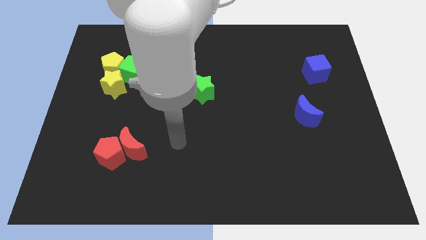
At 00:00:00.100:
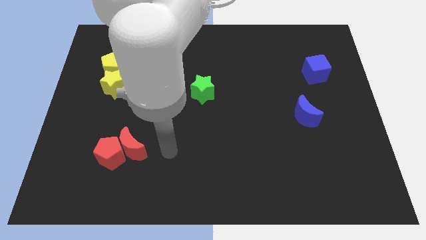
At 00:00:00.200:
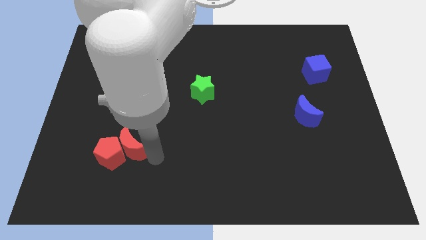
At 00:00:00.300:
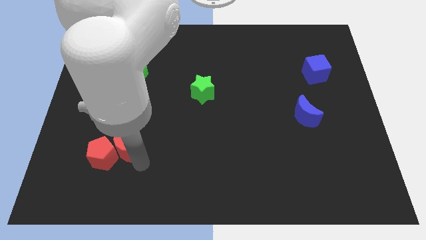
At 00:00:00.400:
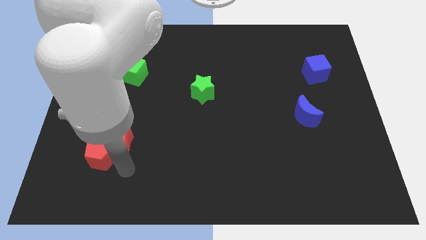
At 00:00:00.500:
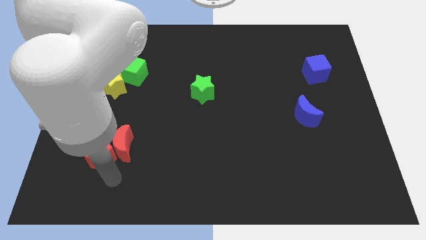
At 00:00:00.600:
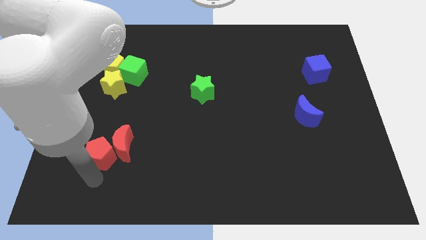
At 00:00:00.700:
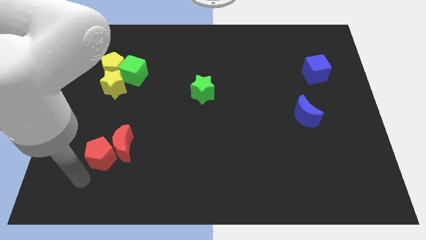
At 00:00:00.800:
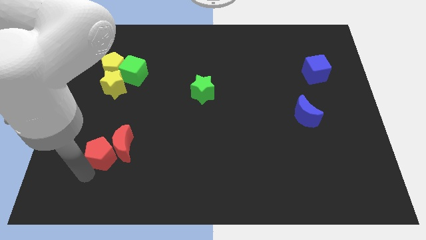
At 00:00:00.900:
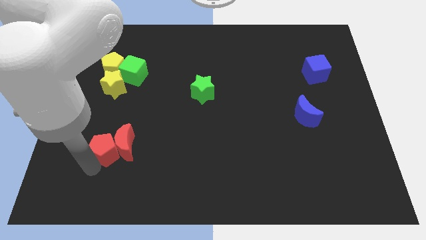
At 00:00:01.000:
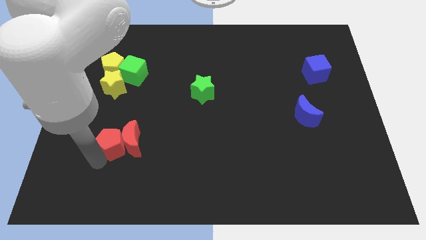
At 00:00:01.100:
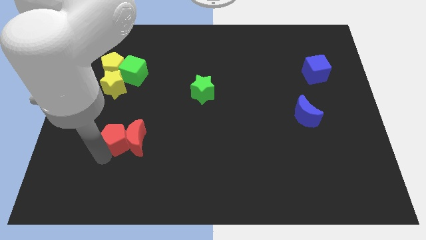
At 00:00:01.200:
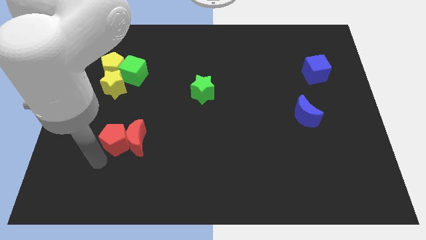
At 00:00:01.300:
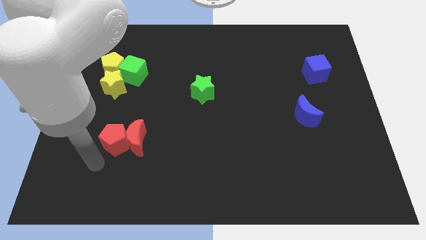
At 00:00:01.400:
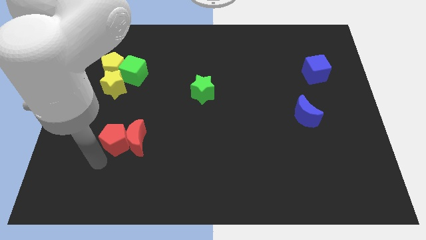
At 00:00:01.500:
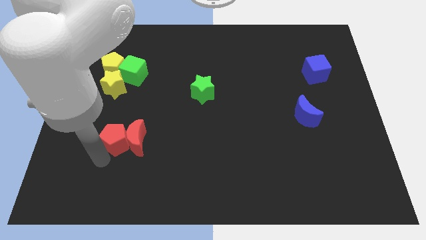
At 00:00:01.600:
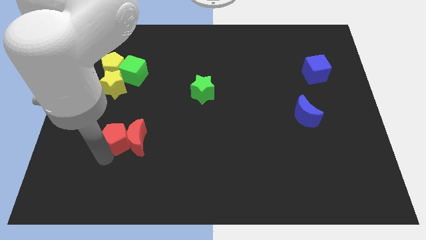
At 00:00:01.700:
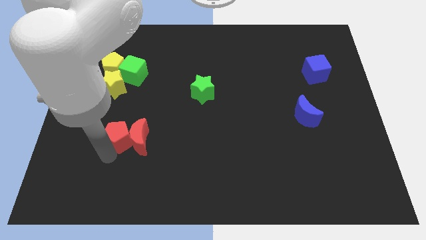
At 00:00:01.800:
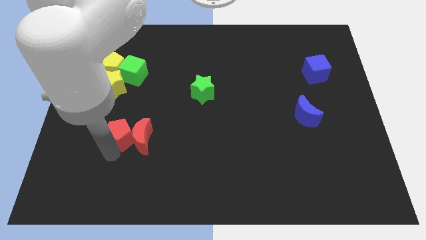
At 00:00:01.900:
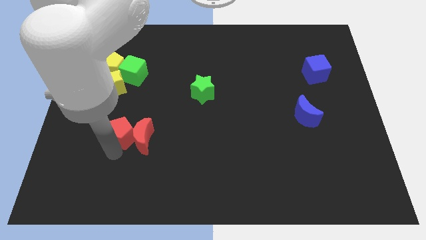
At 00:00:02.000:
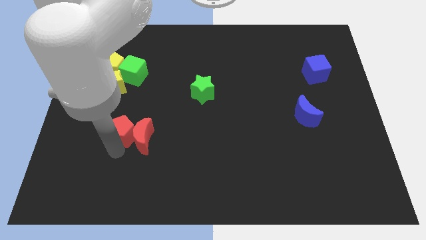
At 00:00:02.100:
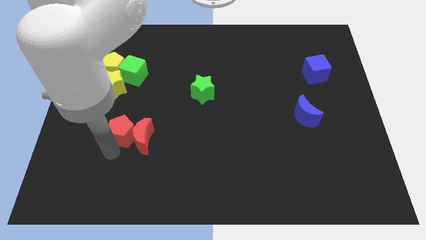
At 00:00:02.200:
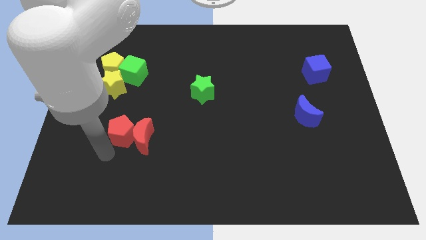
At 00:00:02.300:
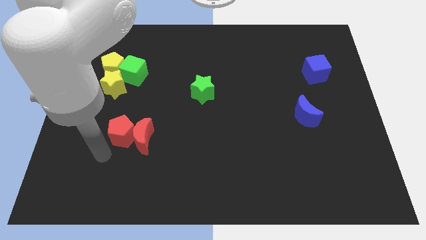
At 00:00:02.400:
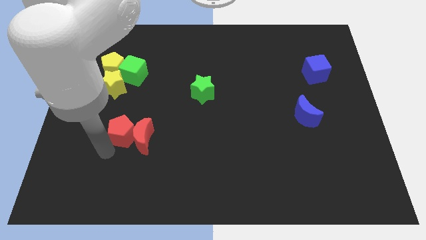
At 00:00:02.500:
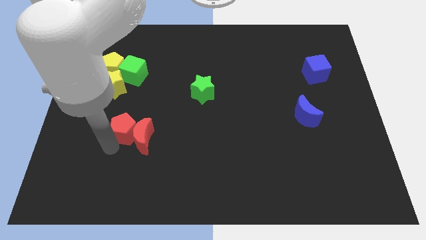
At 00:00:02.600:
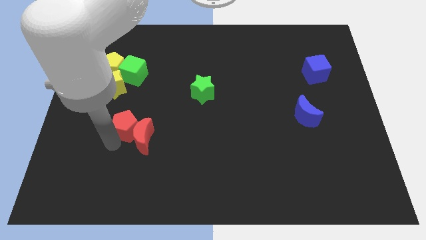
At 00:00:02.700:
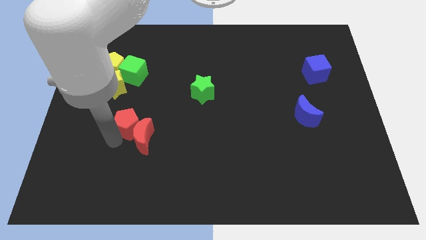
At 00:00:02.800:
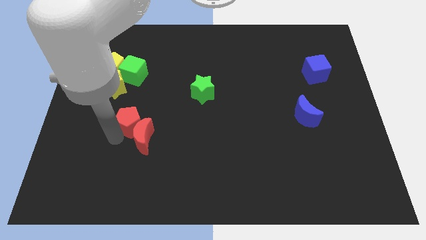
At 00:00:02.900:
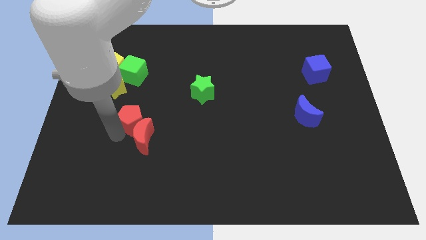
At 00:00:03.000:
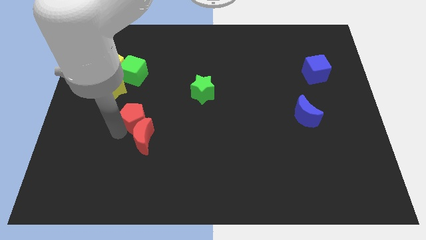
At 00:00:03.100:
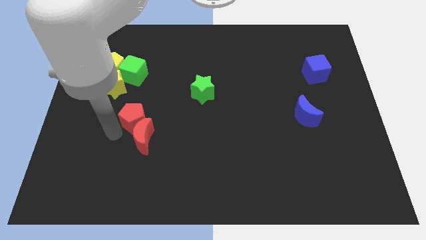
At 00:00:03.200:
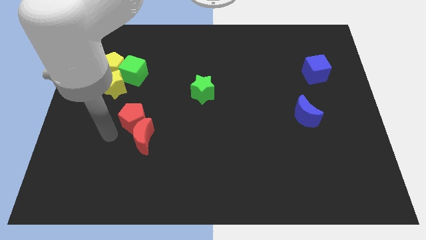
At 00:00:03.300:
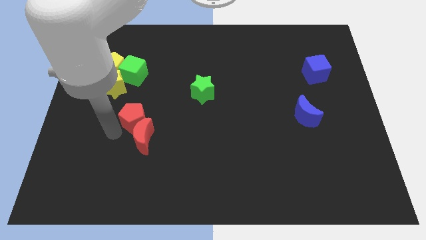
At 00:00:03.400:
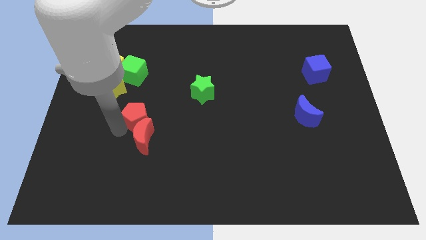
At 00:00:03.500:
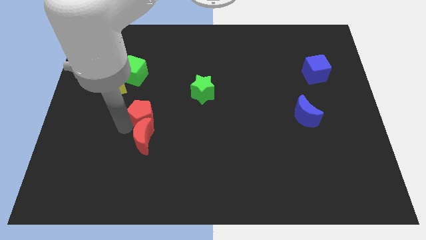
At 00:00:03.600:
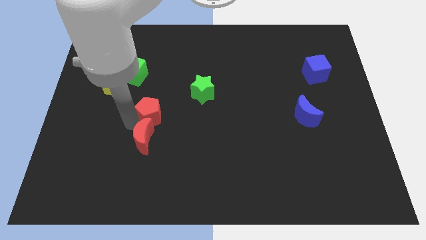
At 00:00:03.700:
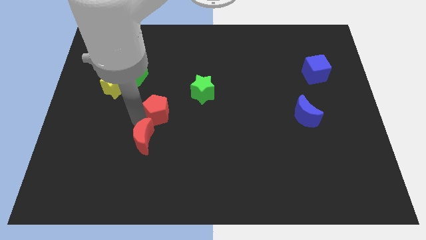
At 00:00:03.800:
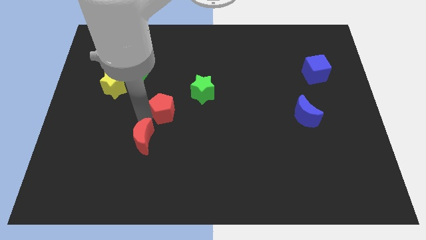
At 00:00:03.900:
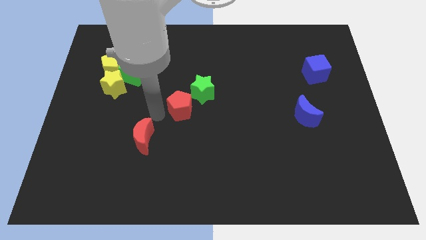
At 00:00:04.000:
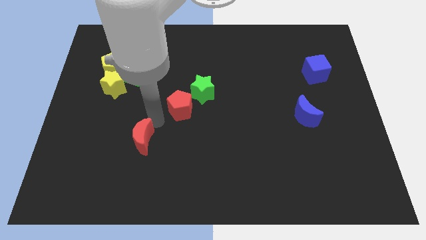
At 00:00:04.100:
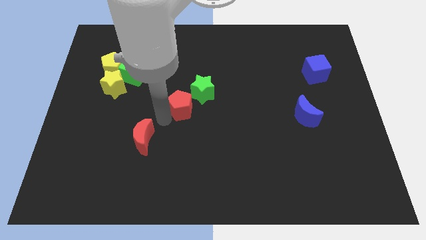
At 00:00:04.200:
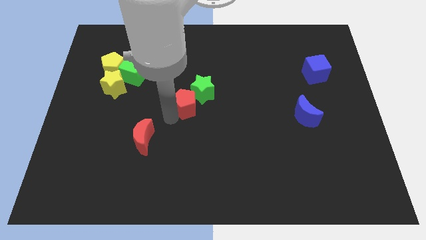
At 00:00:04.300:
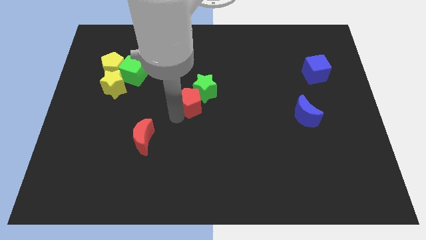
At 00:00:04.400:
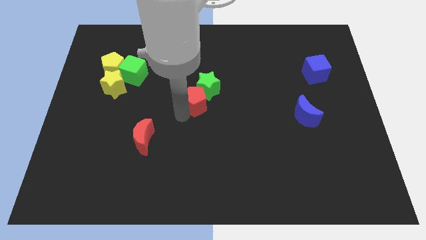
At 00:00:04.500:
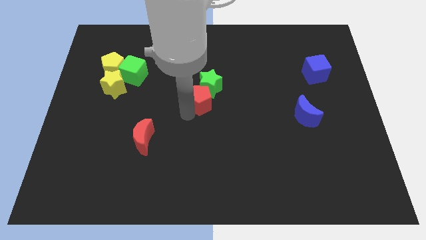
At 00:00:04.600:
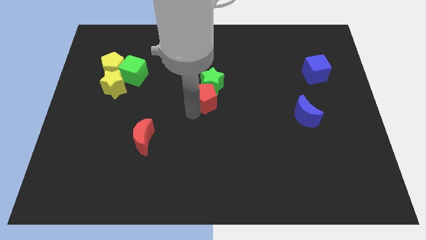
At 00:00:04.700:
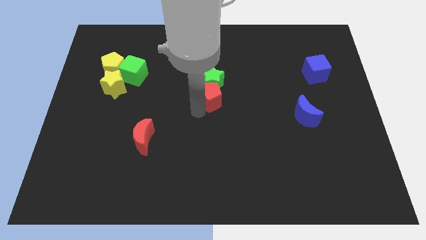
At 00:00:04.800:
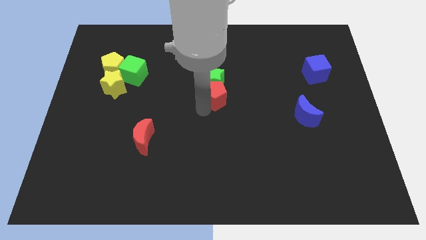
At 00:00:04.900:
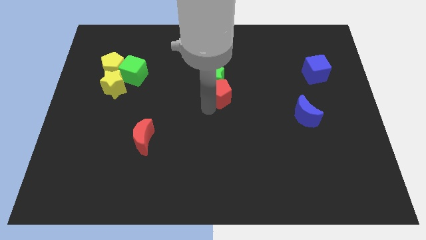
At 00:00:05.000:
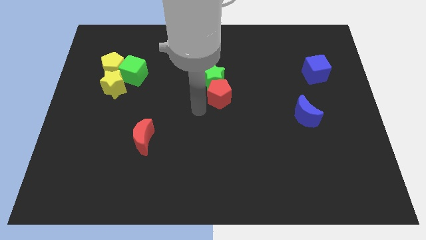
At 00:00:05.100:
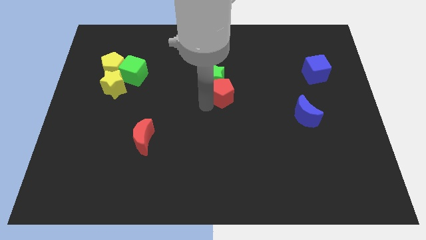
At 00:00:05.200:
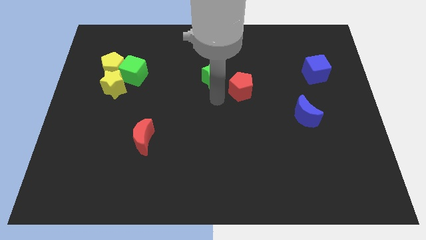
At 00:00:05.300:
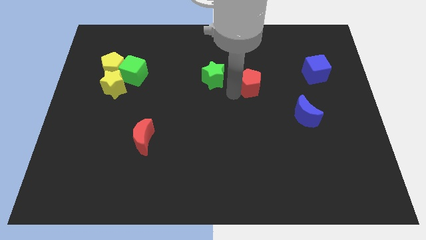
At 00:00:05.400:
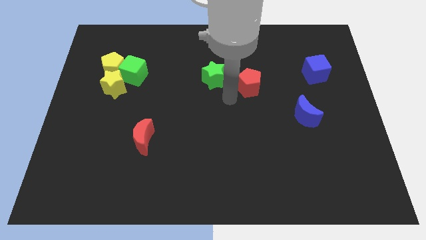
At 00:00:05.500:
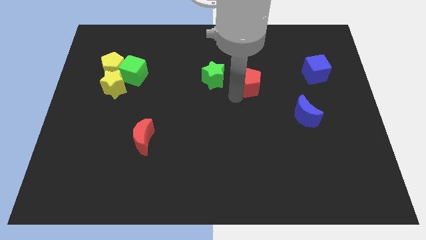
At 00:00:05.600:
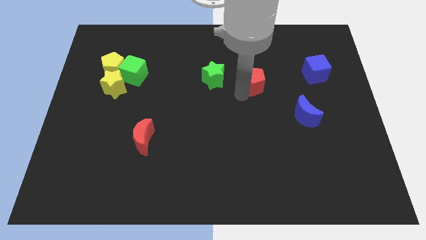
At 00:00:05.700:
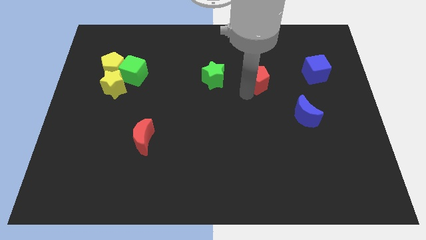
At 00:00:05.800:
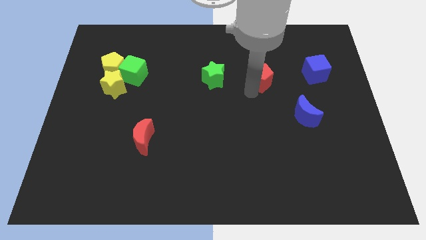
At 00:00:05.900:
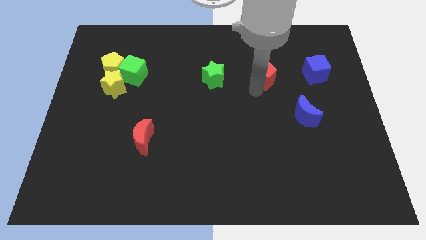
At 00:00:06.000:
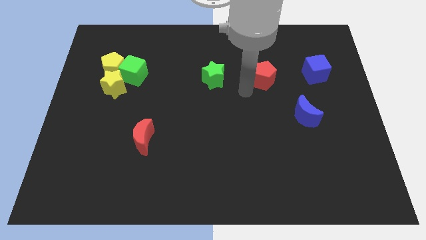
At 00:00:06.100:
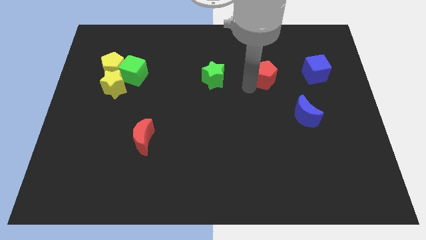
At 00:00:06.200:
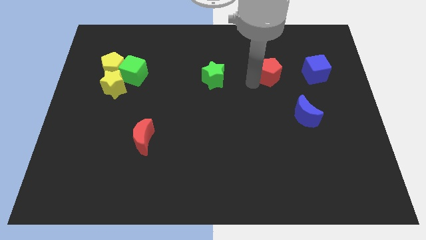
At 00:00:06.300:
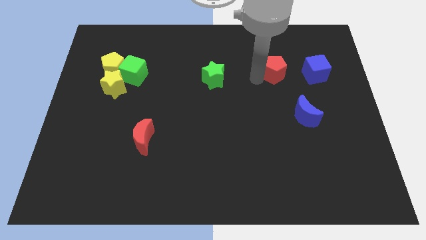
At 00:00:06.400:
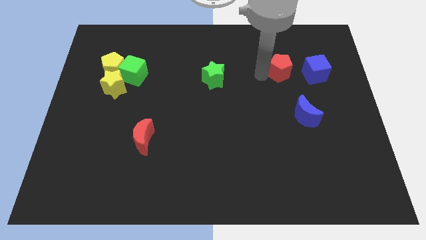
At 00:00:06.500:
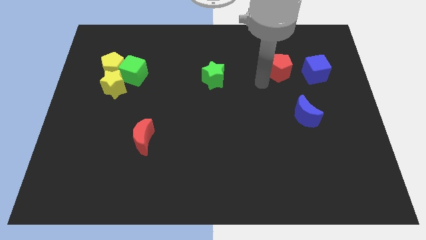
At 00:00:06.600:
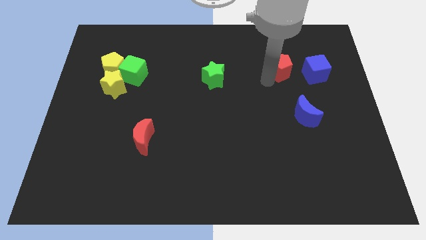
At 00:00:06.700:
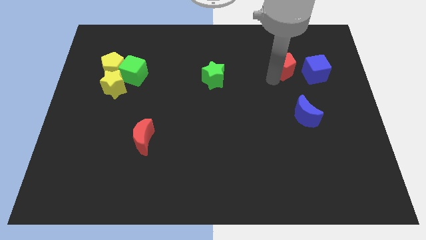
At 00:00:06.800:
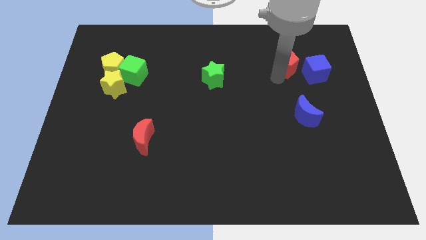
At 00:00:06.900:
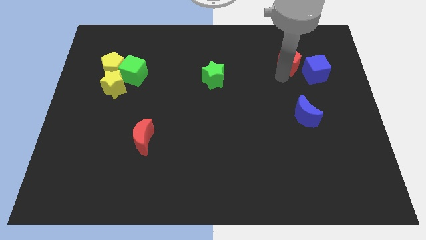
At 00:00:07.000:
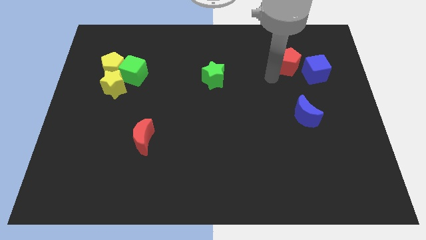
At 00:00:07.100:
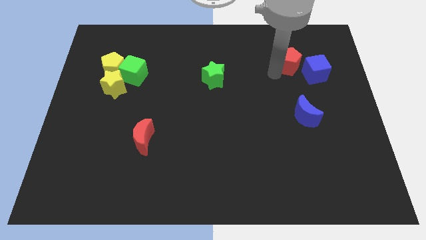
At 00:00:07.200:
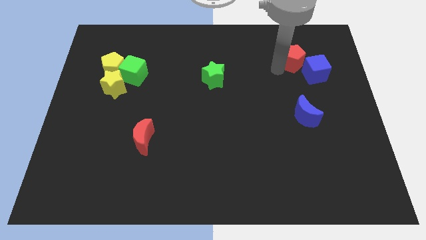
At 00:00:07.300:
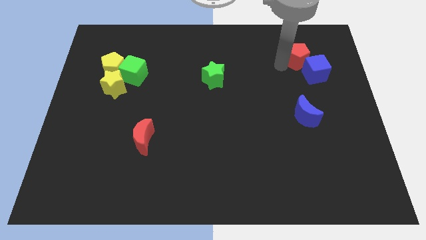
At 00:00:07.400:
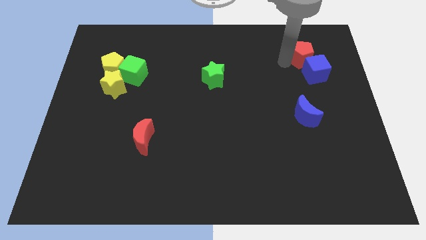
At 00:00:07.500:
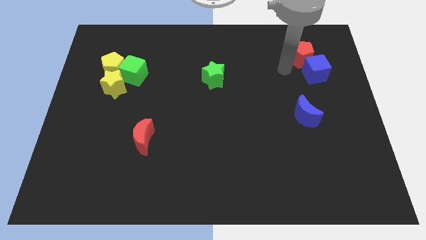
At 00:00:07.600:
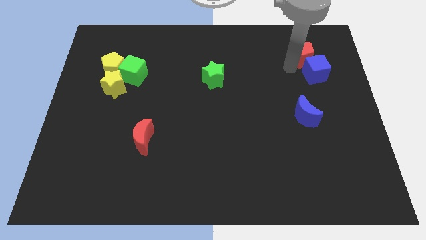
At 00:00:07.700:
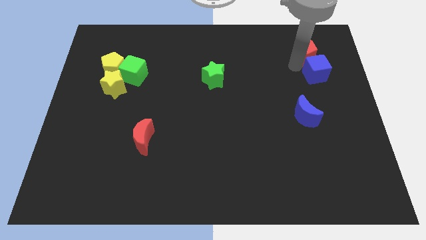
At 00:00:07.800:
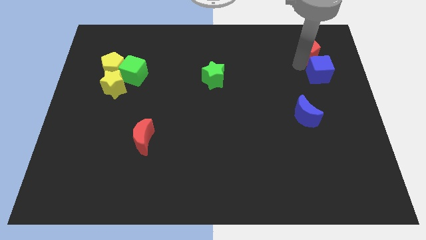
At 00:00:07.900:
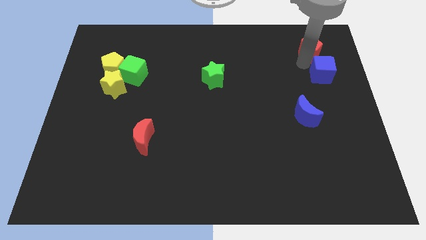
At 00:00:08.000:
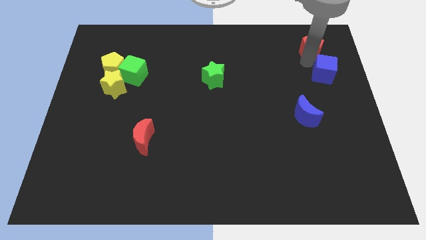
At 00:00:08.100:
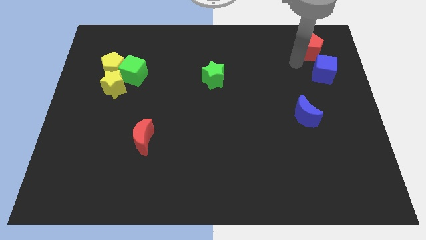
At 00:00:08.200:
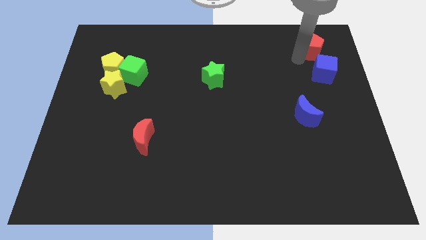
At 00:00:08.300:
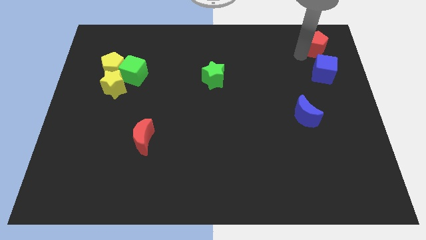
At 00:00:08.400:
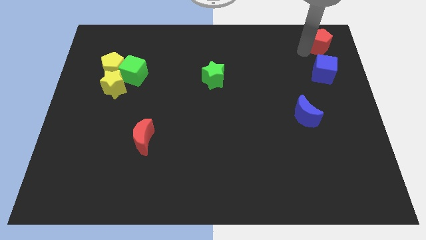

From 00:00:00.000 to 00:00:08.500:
put the red pentagon to the top right
